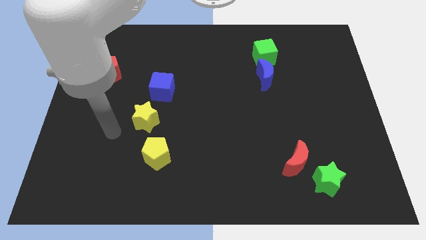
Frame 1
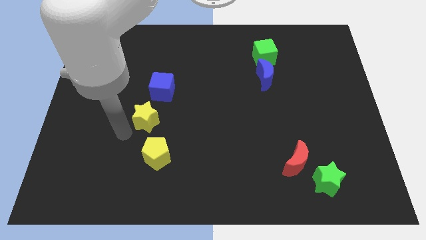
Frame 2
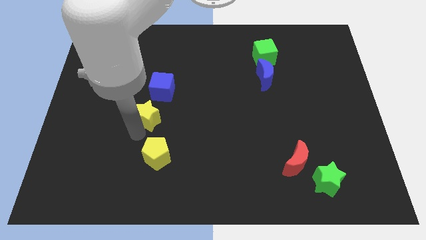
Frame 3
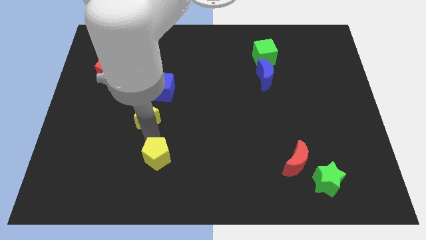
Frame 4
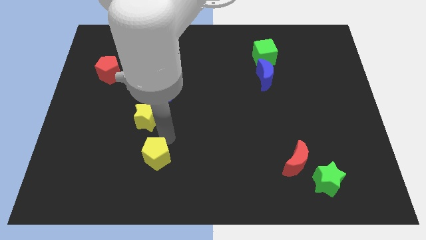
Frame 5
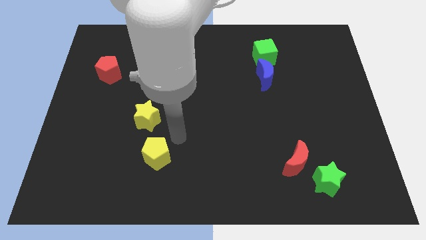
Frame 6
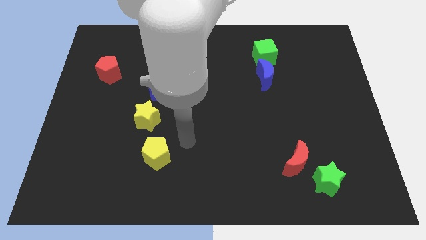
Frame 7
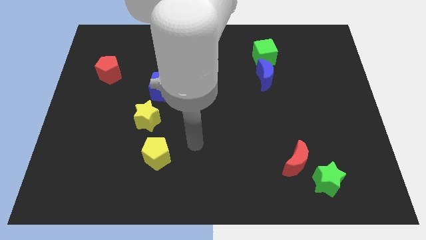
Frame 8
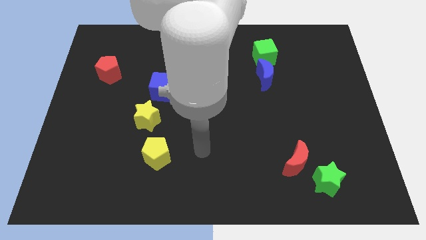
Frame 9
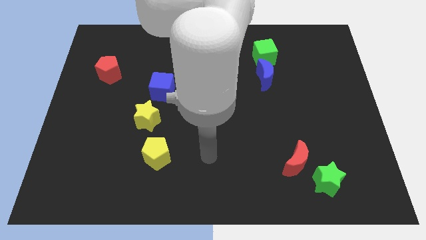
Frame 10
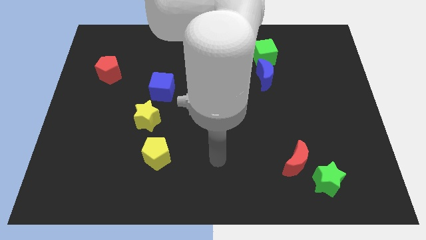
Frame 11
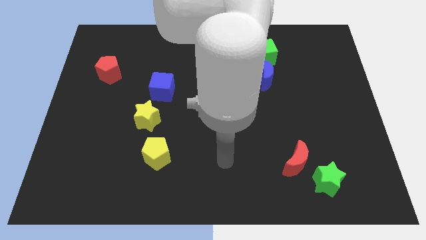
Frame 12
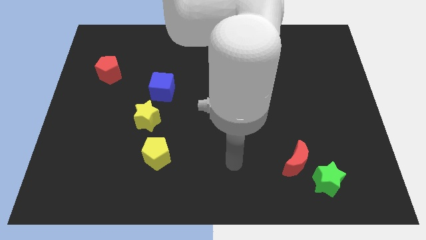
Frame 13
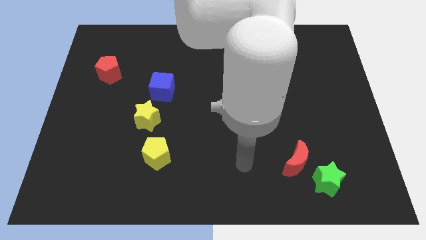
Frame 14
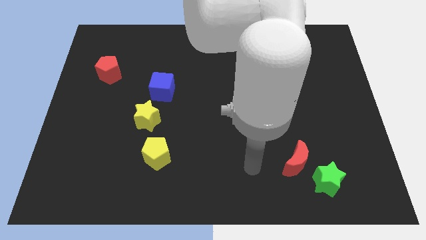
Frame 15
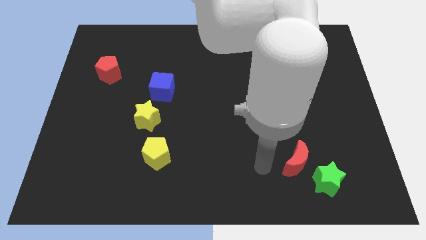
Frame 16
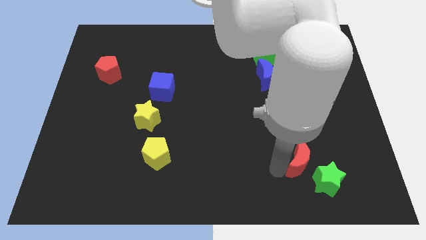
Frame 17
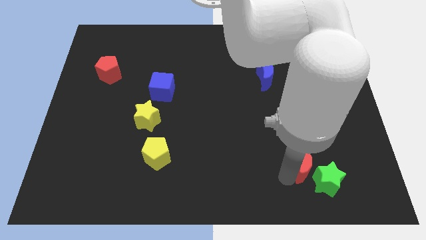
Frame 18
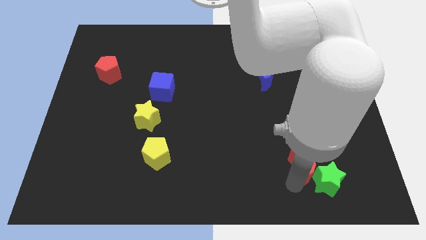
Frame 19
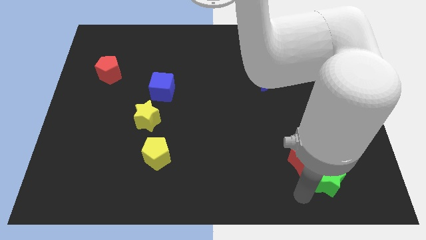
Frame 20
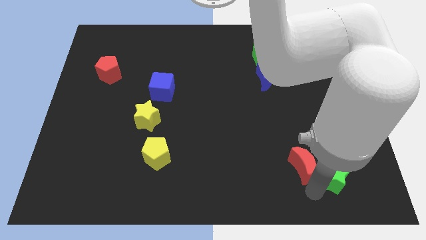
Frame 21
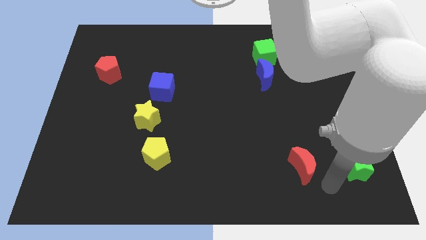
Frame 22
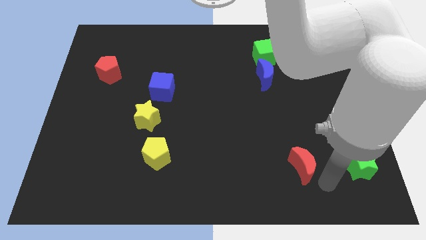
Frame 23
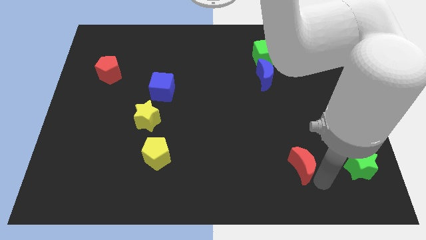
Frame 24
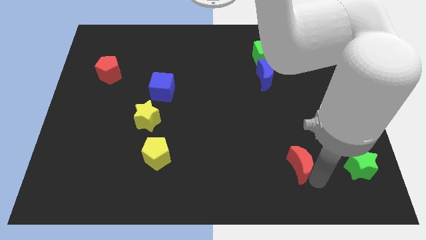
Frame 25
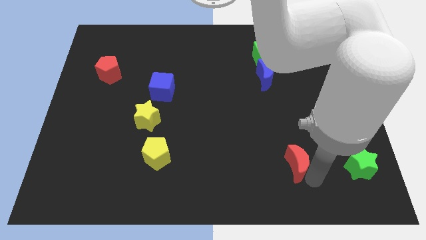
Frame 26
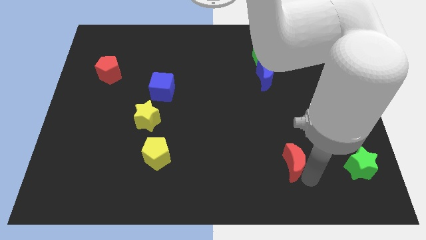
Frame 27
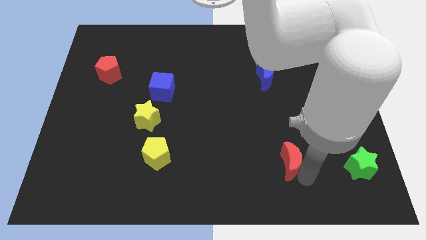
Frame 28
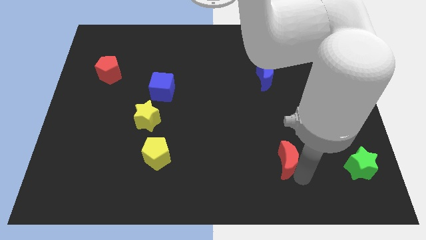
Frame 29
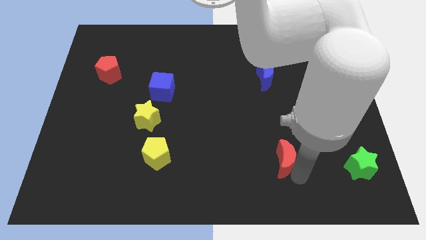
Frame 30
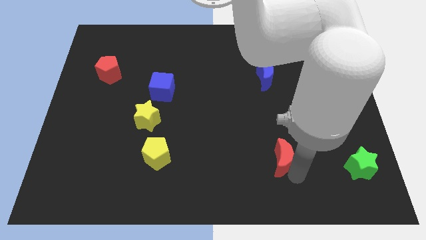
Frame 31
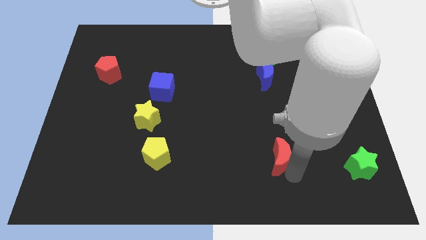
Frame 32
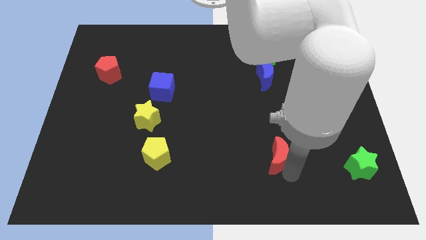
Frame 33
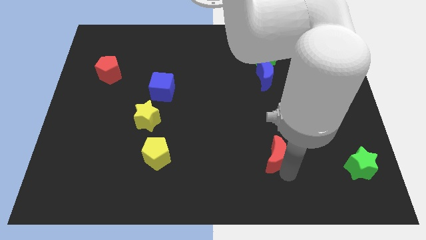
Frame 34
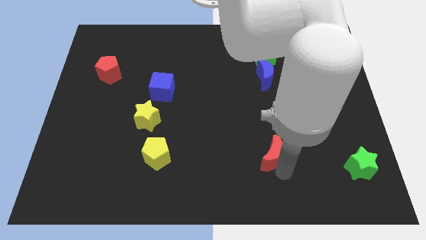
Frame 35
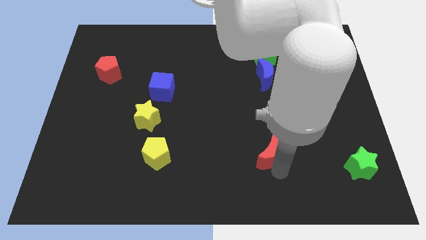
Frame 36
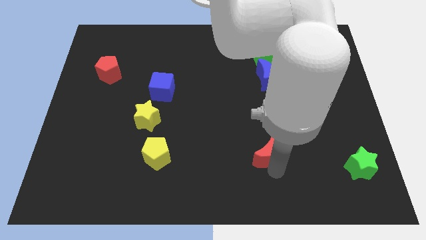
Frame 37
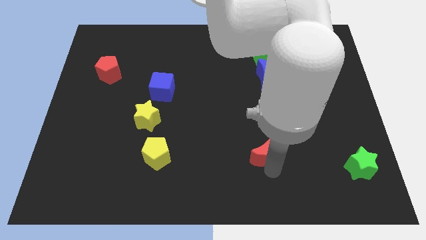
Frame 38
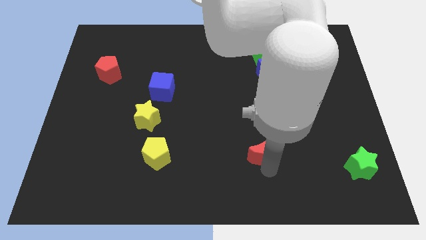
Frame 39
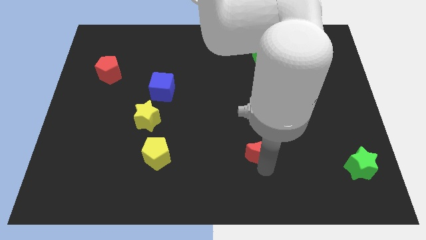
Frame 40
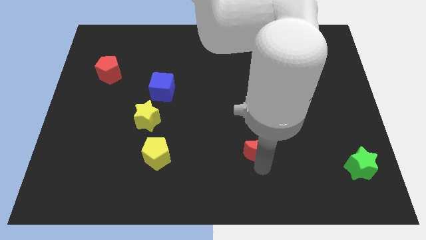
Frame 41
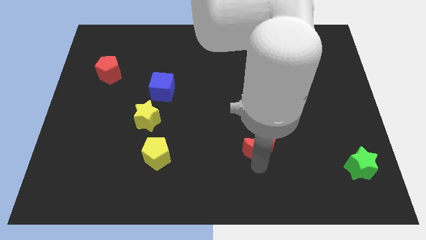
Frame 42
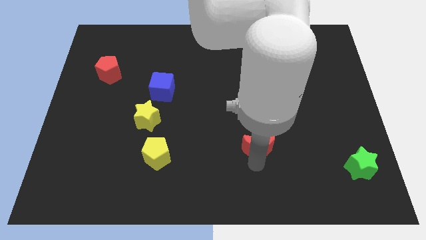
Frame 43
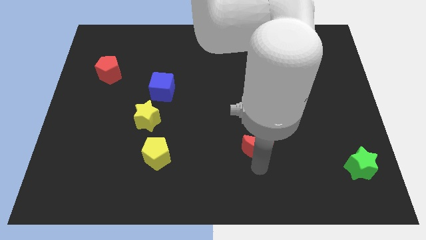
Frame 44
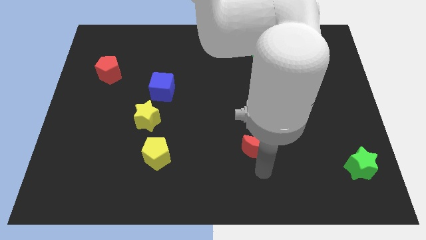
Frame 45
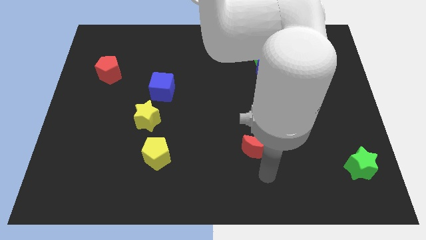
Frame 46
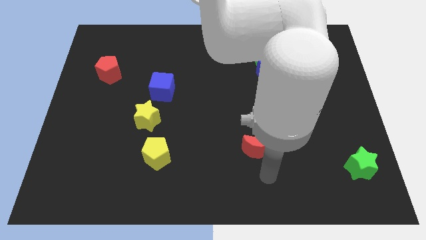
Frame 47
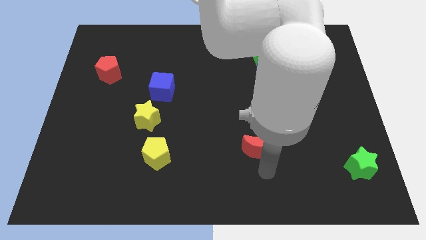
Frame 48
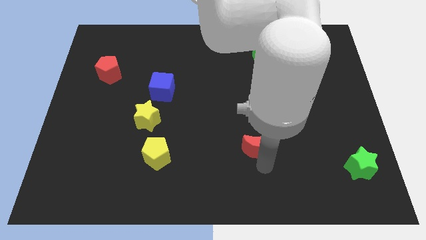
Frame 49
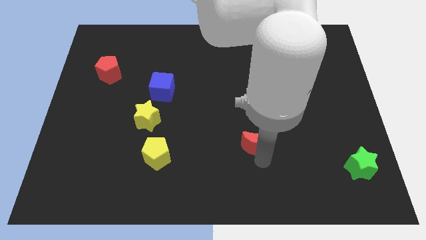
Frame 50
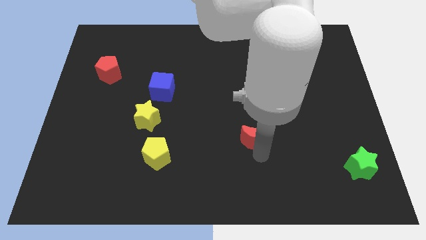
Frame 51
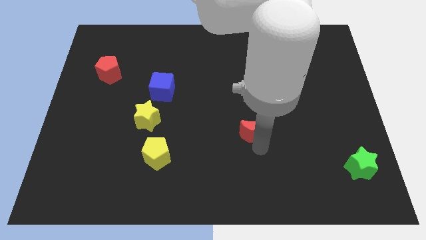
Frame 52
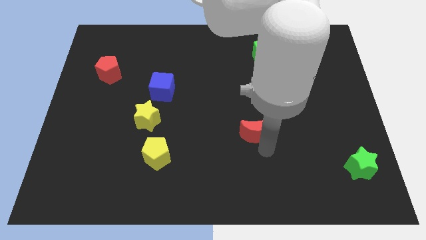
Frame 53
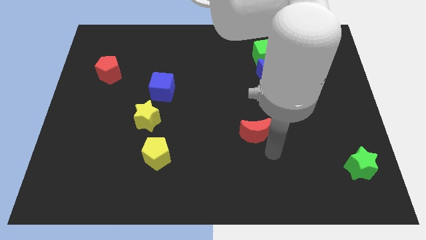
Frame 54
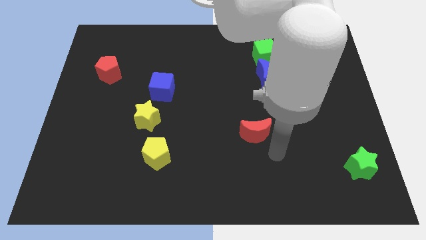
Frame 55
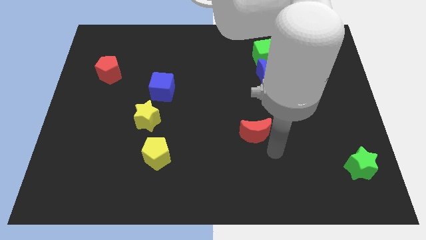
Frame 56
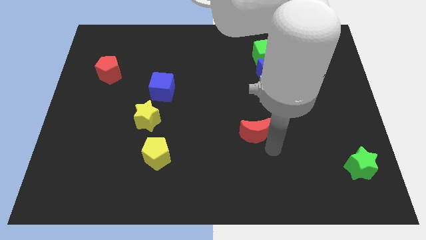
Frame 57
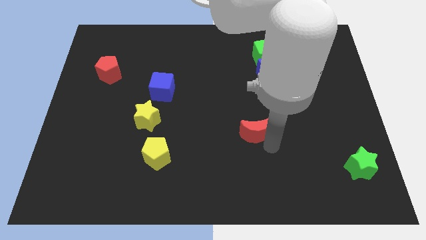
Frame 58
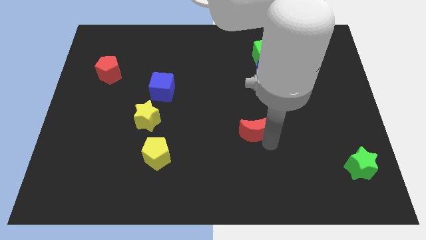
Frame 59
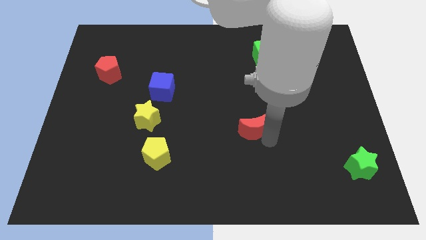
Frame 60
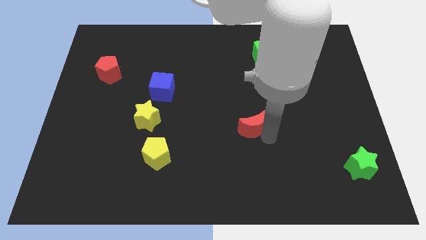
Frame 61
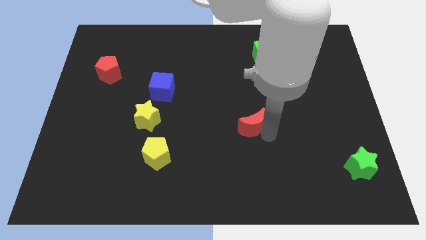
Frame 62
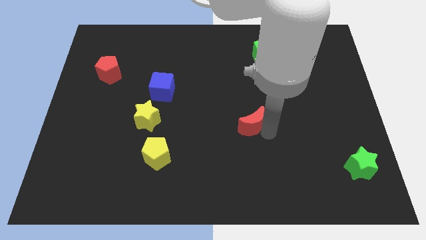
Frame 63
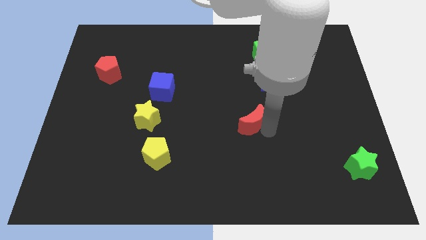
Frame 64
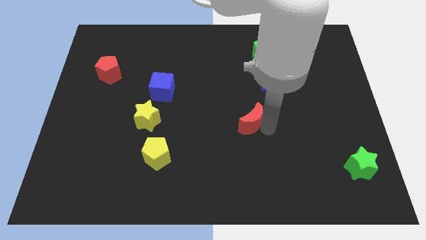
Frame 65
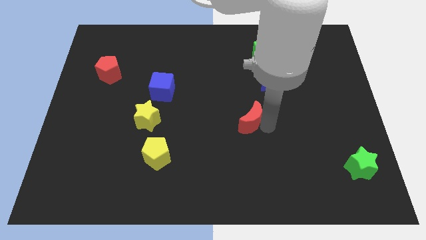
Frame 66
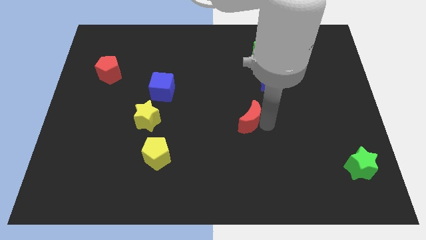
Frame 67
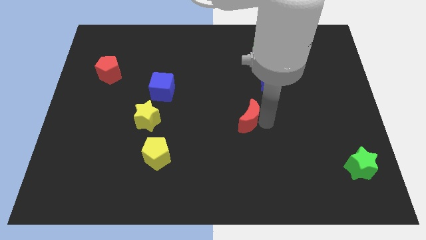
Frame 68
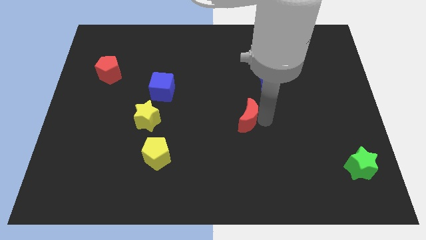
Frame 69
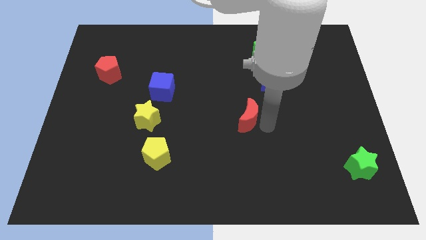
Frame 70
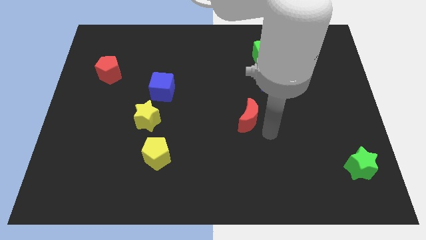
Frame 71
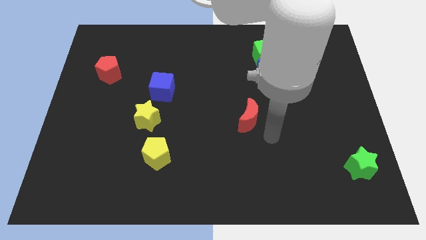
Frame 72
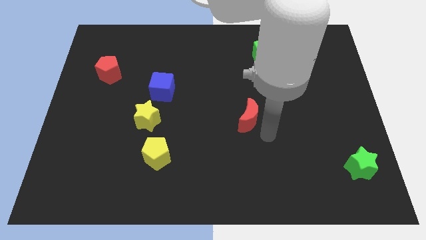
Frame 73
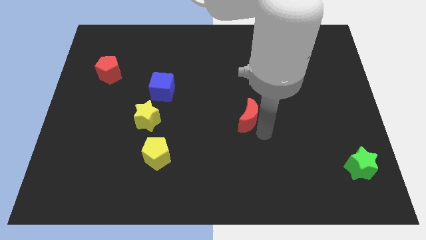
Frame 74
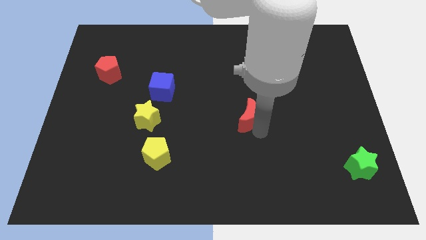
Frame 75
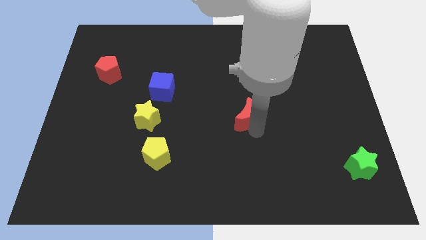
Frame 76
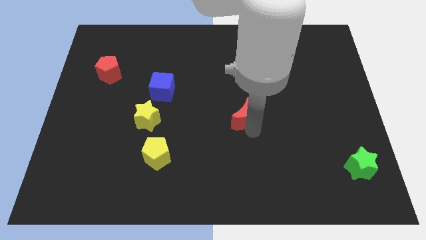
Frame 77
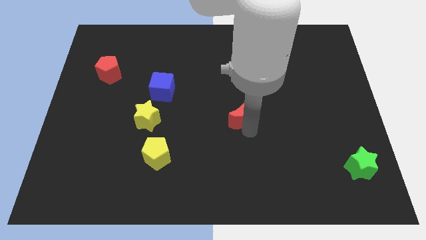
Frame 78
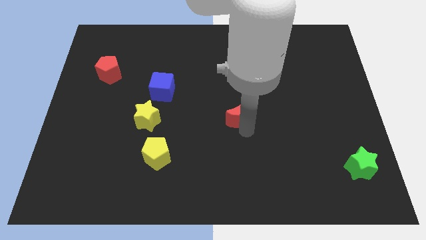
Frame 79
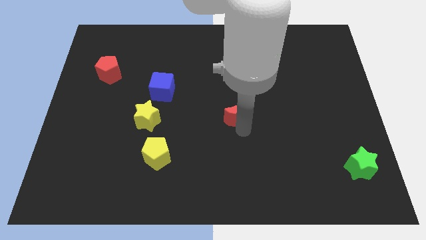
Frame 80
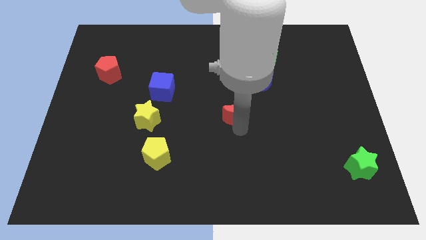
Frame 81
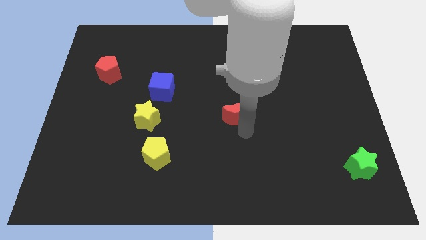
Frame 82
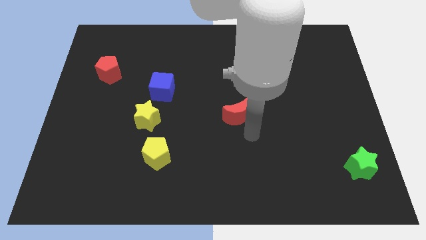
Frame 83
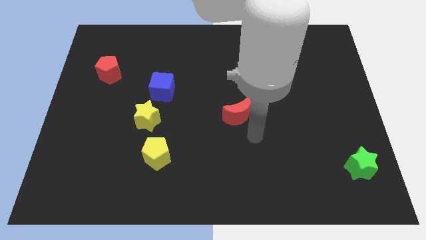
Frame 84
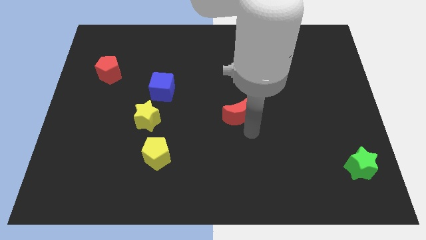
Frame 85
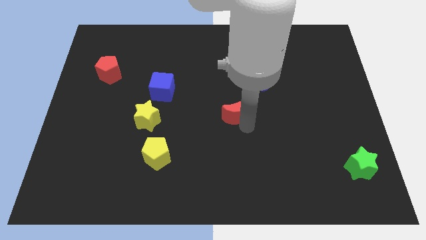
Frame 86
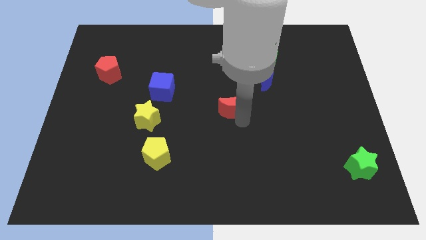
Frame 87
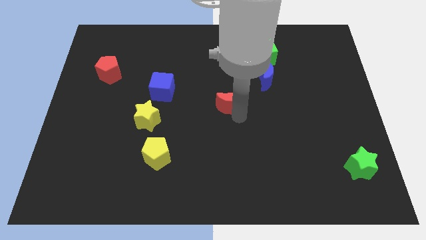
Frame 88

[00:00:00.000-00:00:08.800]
push the red moon diagonally upwards and left
